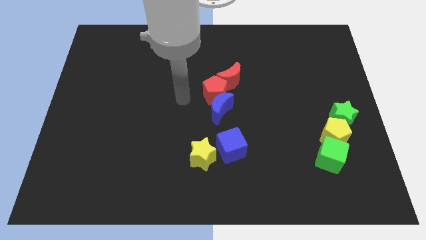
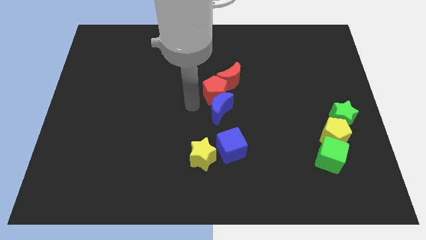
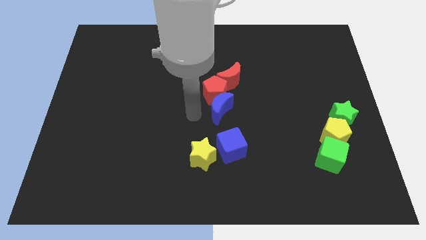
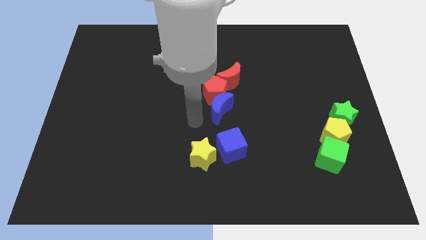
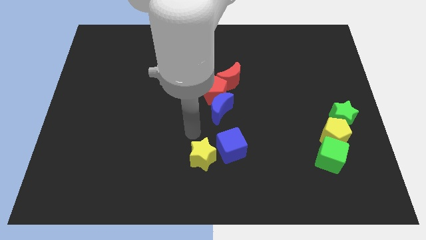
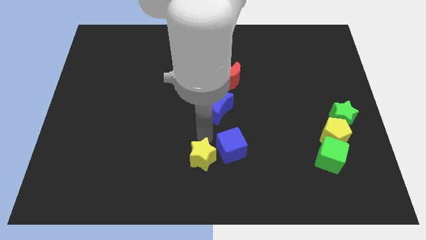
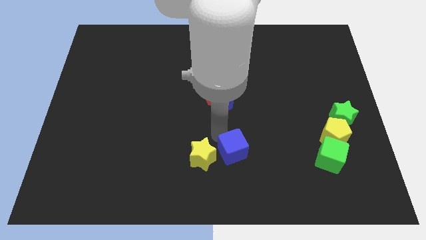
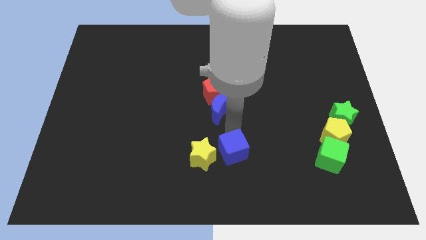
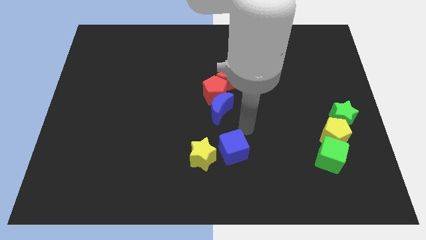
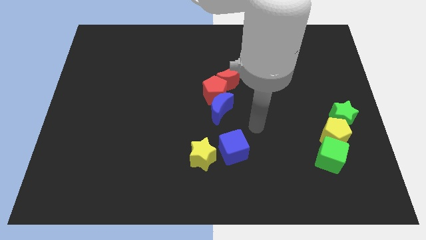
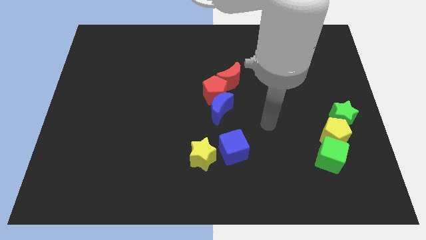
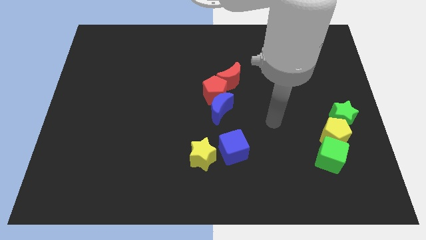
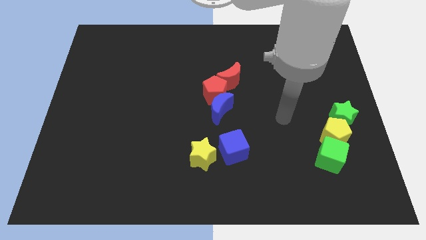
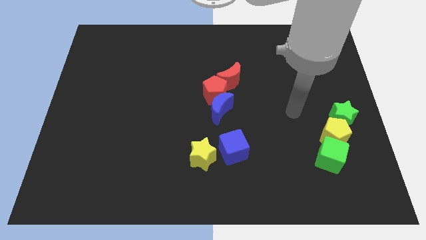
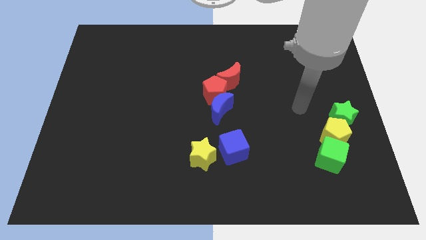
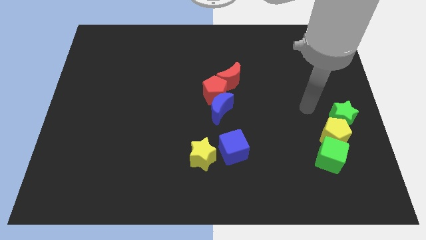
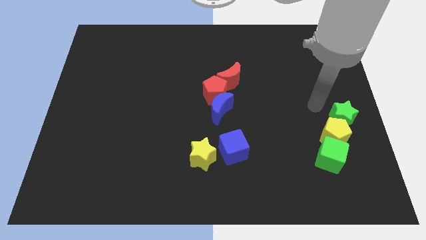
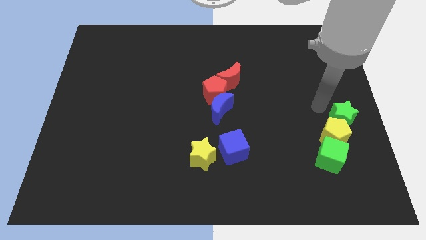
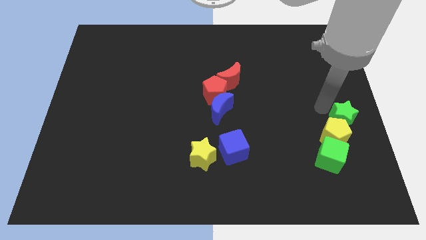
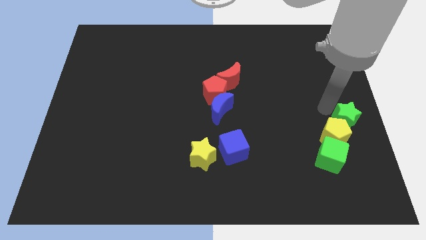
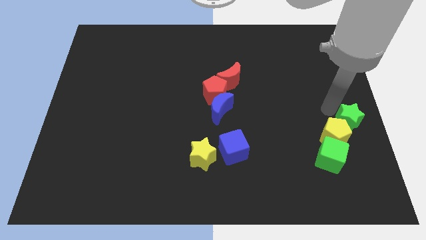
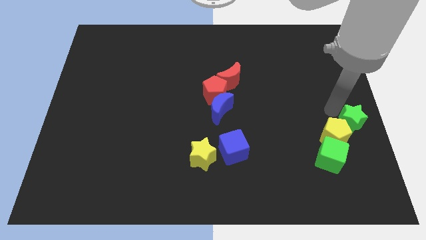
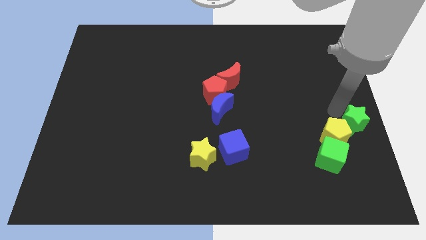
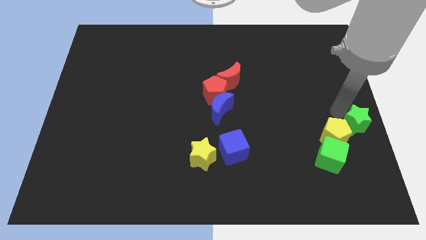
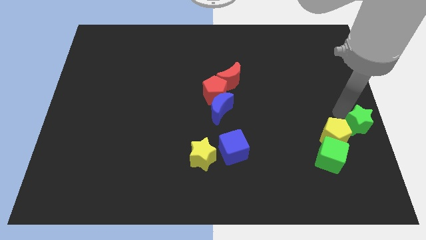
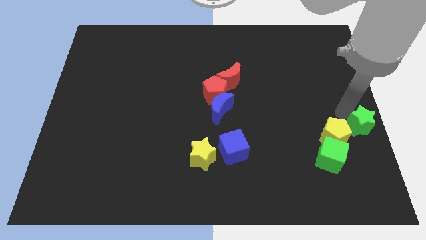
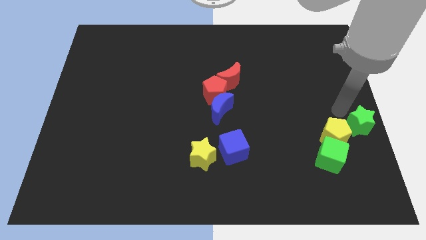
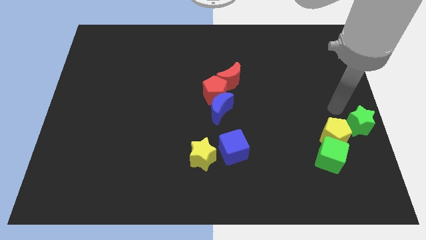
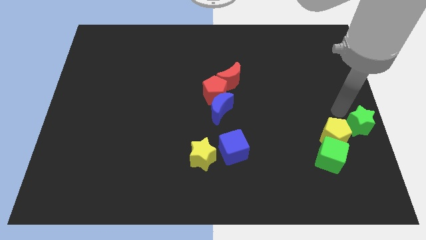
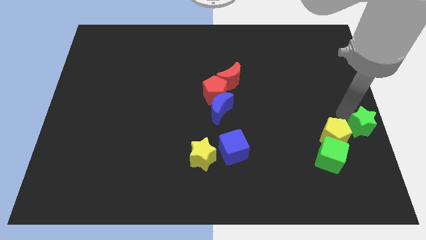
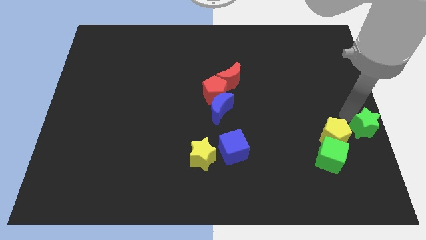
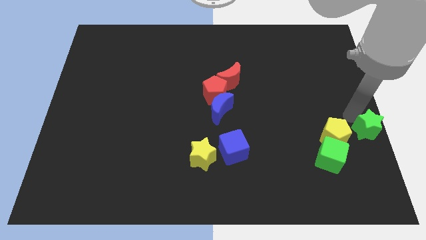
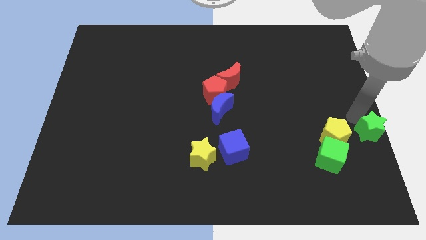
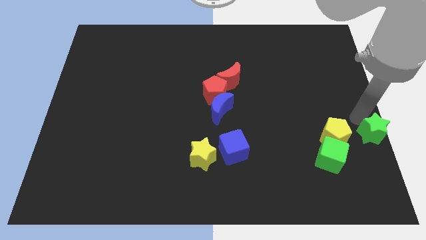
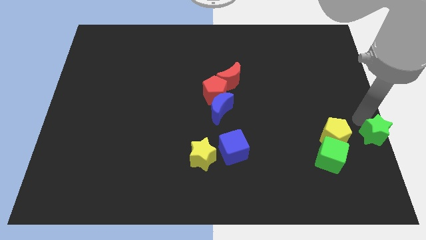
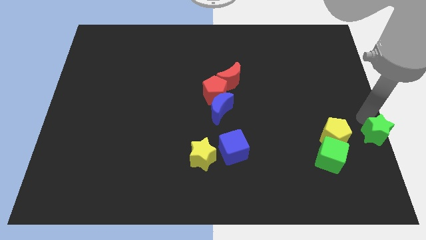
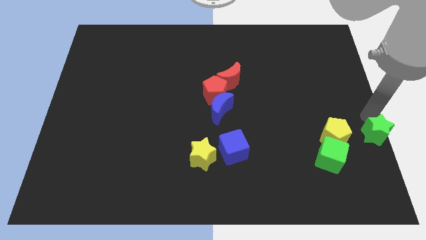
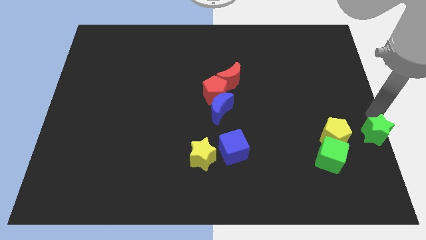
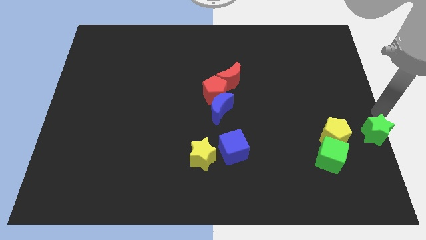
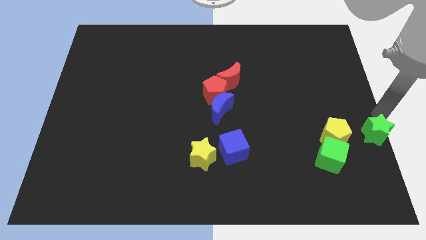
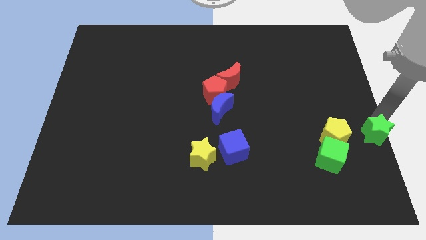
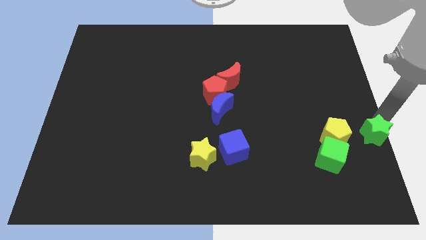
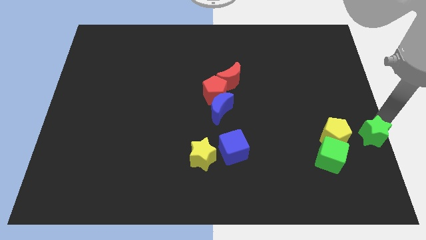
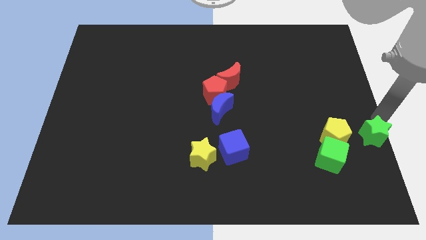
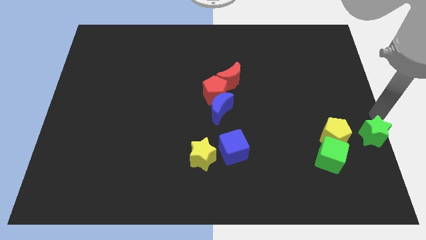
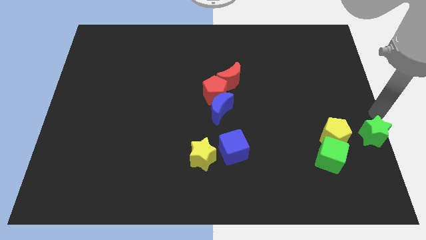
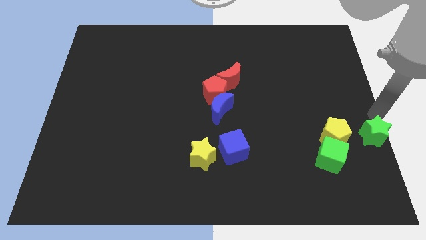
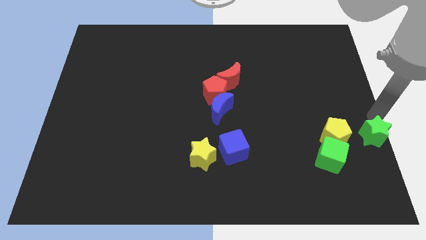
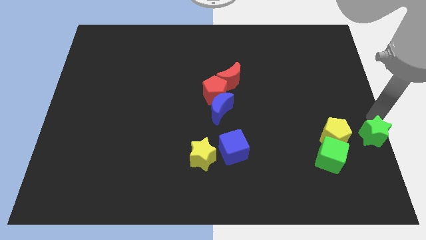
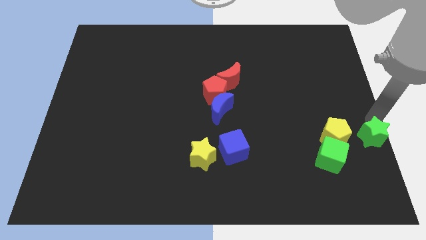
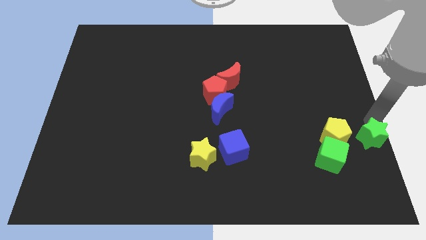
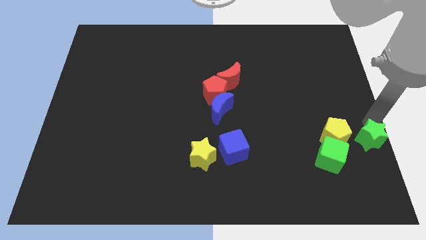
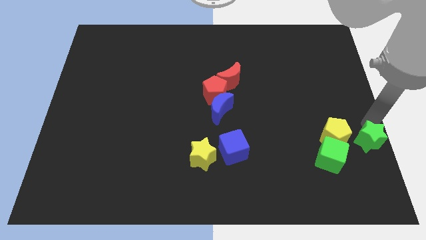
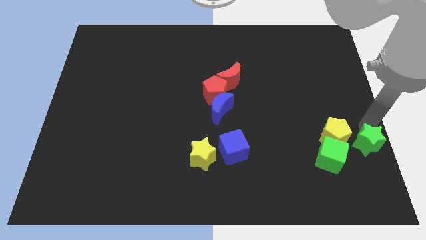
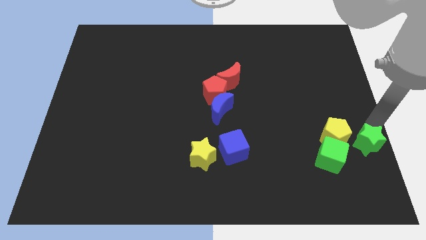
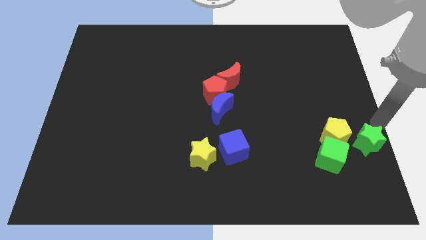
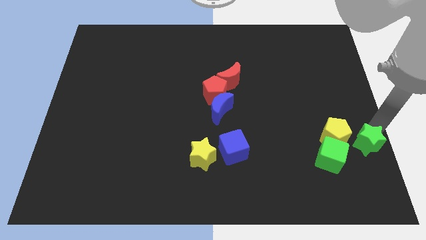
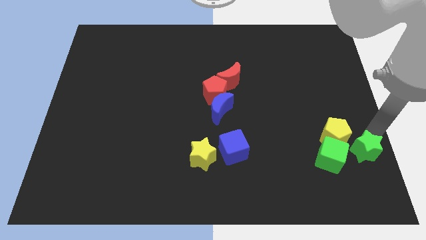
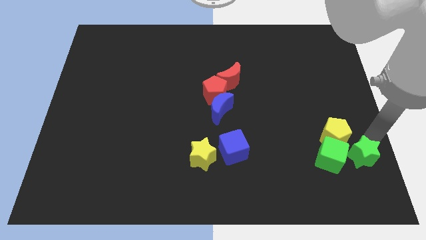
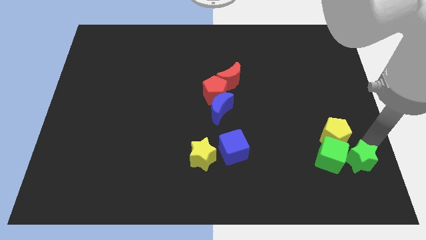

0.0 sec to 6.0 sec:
slide the green star below the yellow pentagon

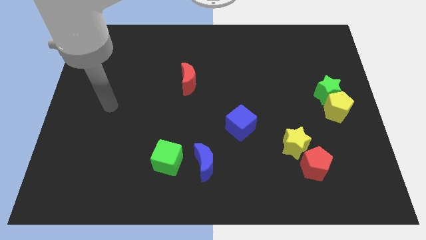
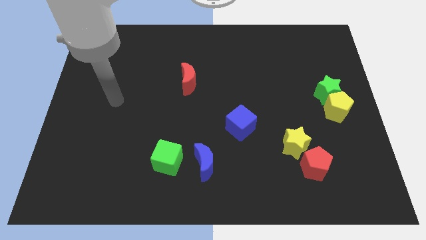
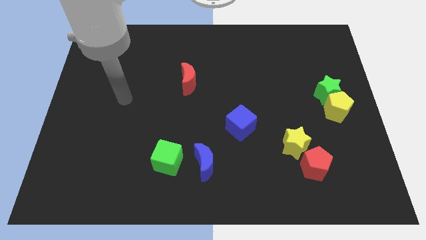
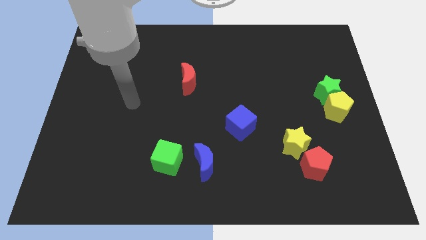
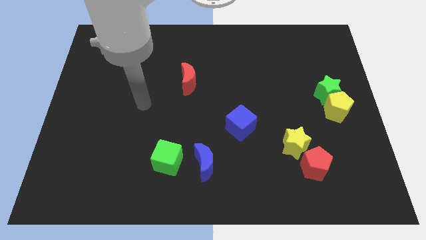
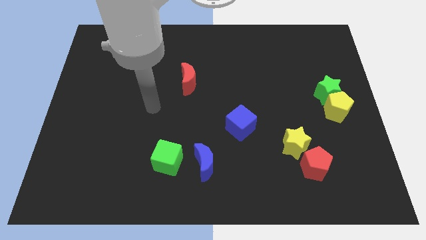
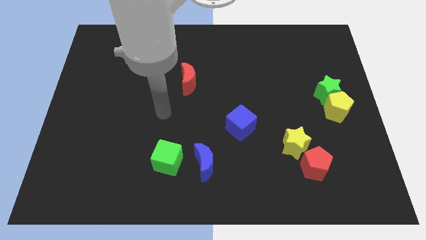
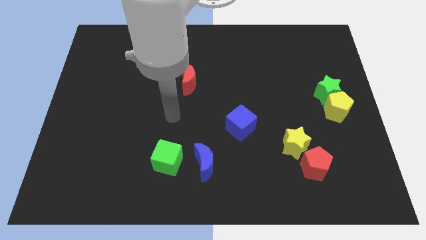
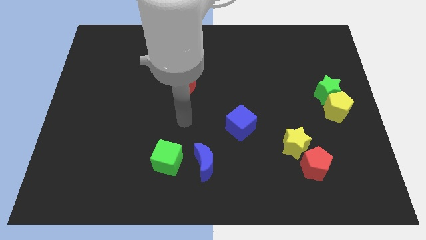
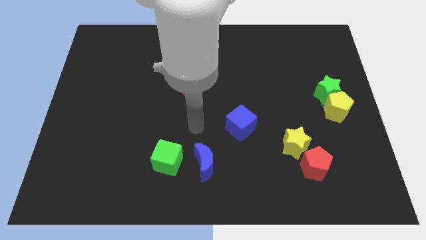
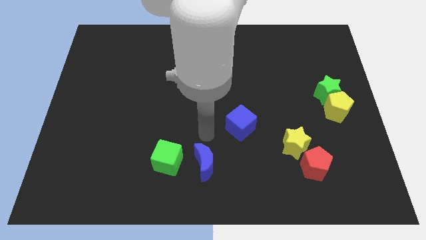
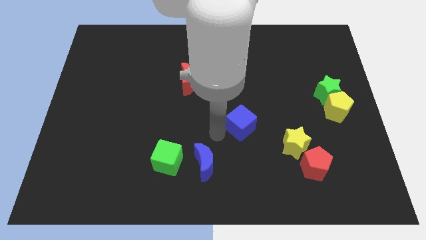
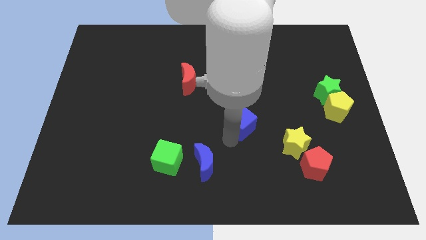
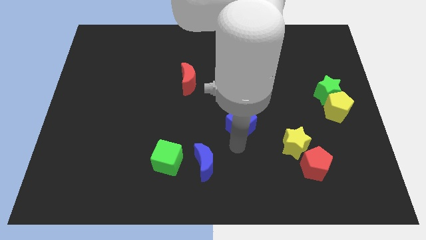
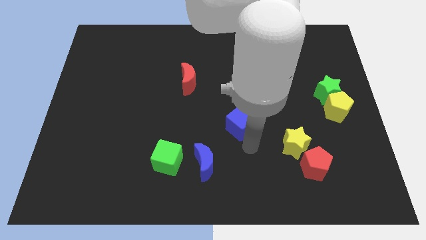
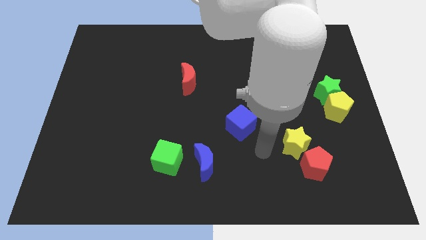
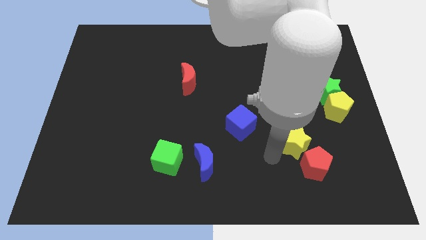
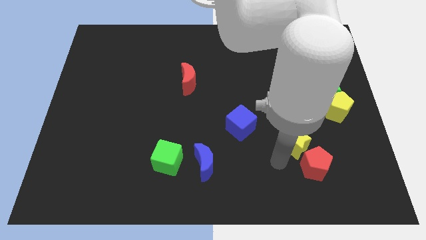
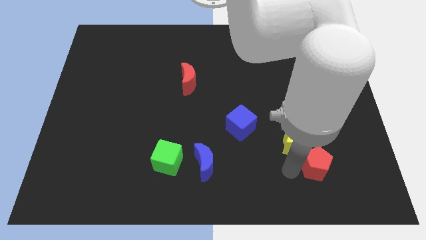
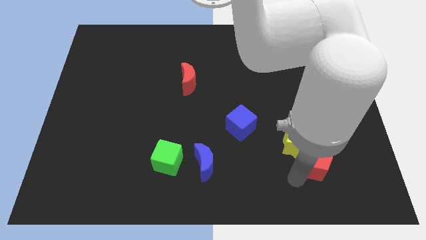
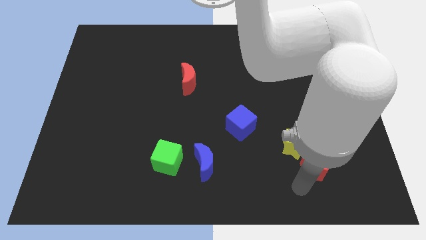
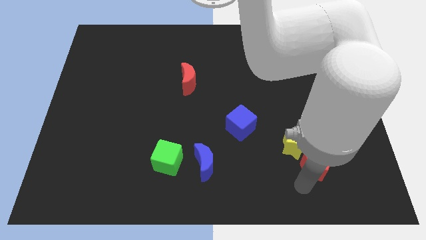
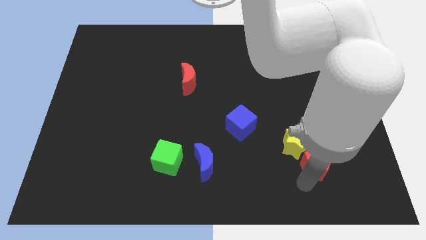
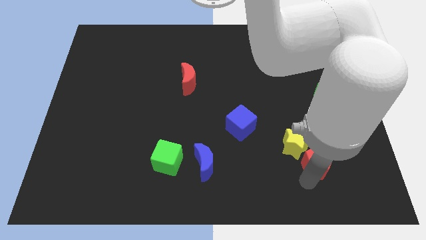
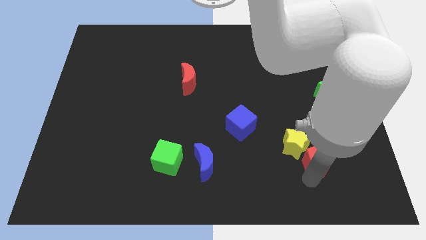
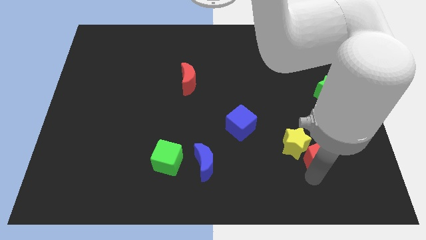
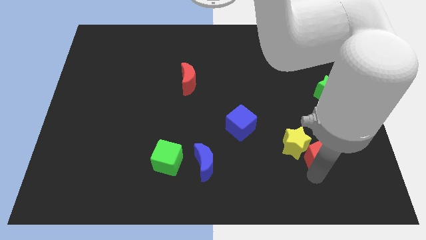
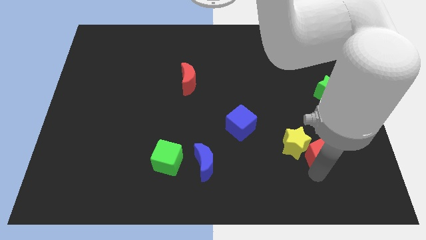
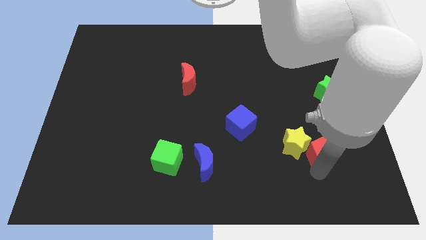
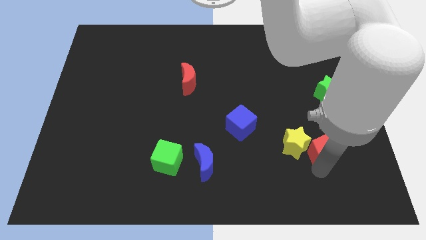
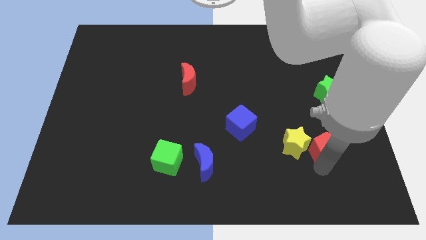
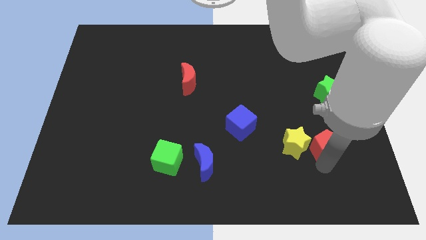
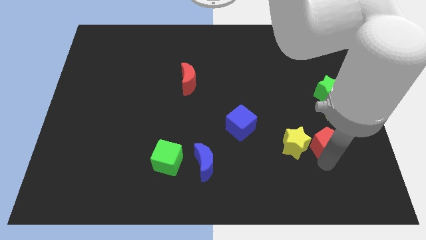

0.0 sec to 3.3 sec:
push the red pentagon to the bottom of the green star
